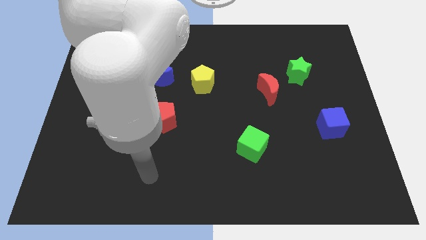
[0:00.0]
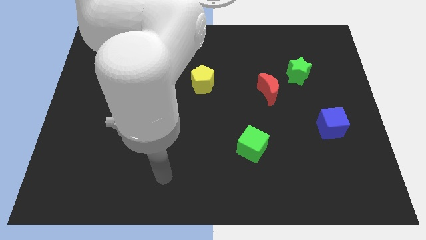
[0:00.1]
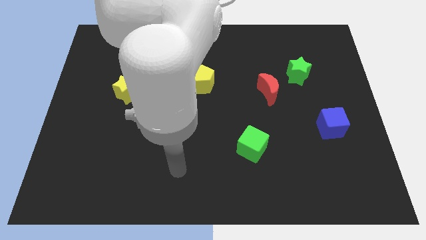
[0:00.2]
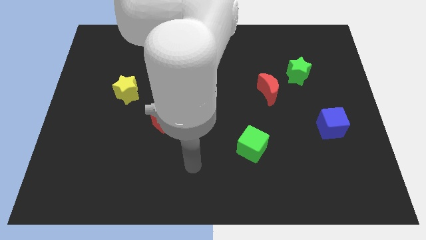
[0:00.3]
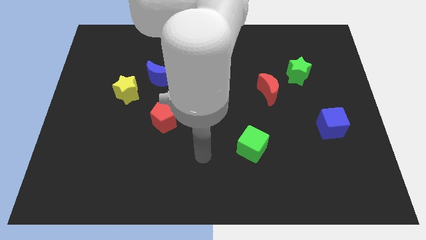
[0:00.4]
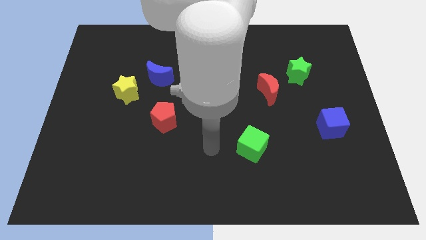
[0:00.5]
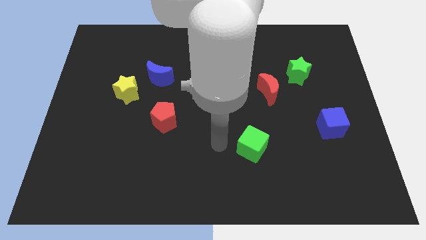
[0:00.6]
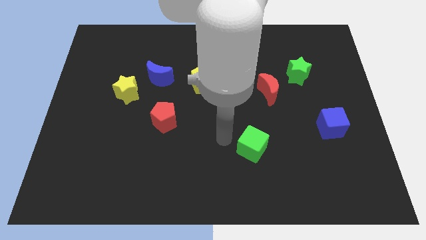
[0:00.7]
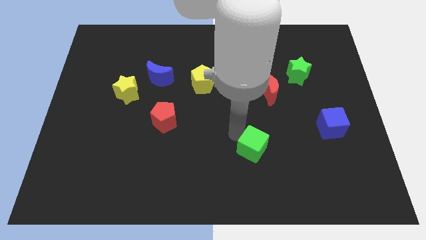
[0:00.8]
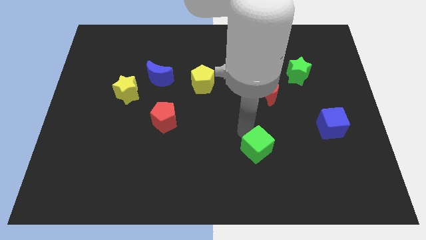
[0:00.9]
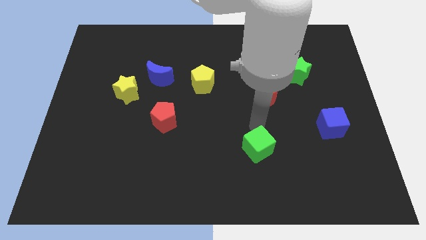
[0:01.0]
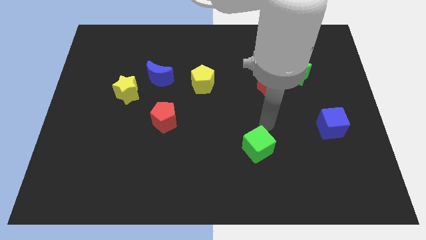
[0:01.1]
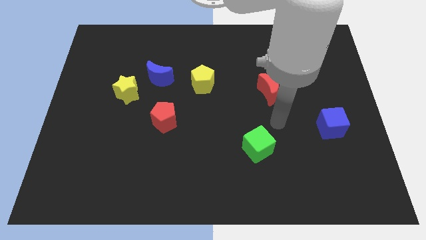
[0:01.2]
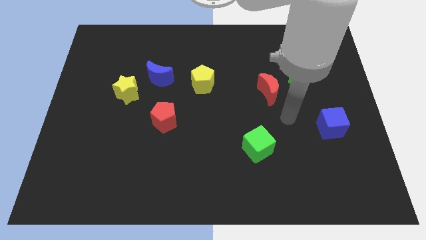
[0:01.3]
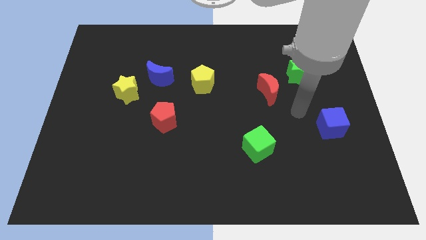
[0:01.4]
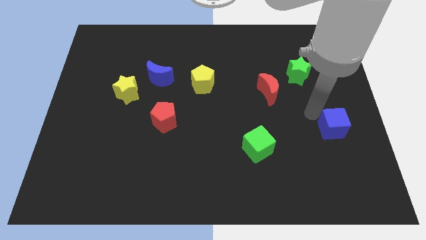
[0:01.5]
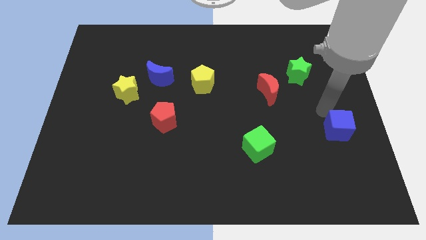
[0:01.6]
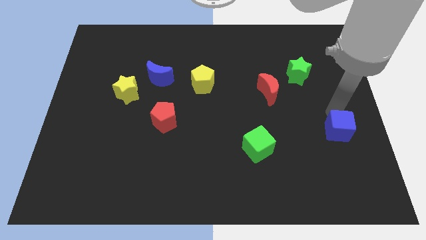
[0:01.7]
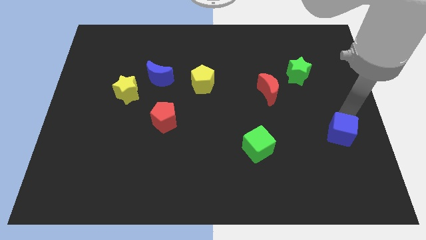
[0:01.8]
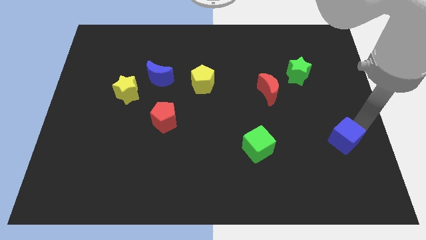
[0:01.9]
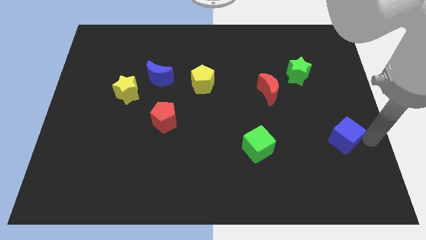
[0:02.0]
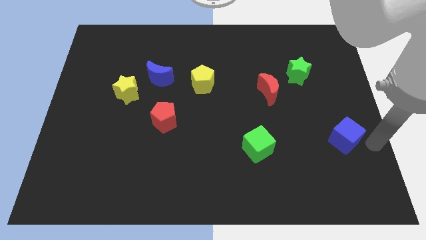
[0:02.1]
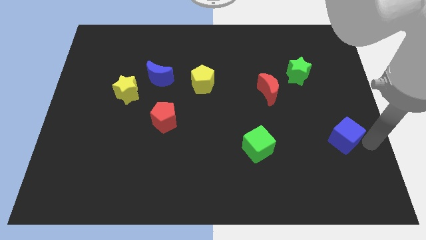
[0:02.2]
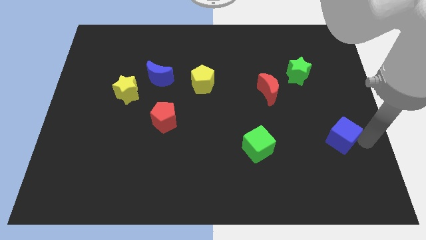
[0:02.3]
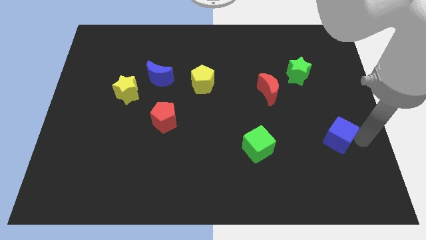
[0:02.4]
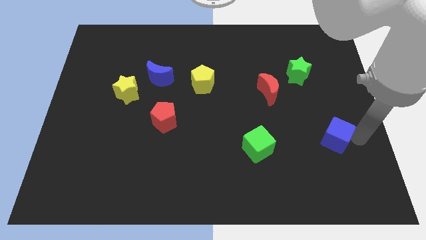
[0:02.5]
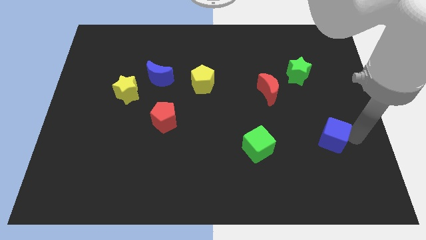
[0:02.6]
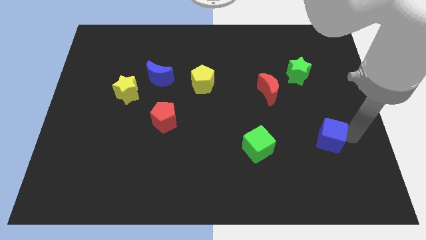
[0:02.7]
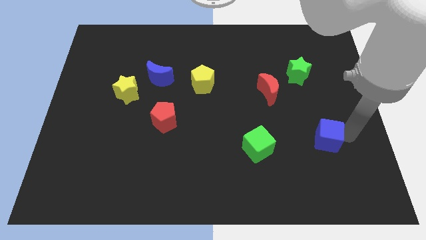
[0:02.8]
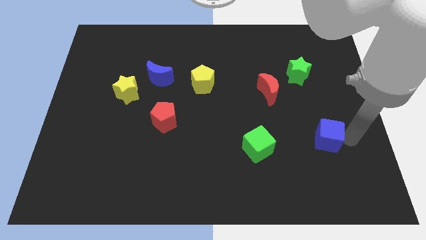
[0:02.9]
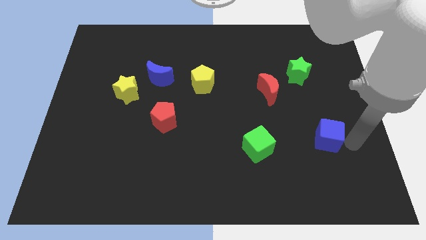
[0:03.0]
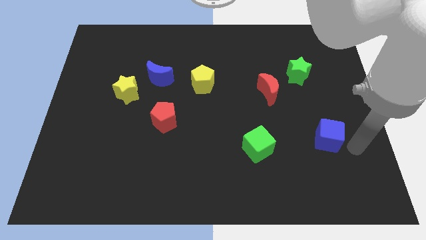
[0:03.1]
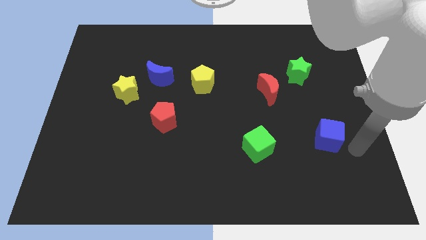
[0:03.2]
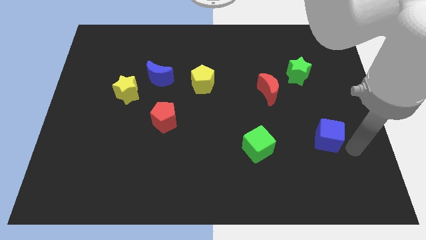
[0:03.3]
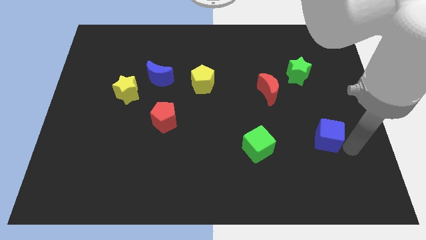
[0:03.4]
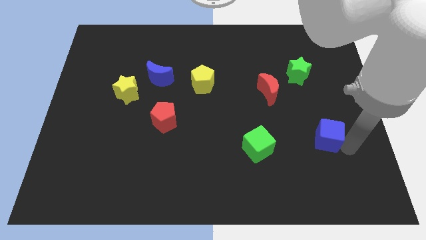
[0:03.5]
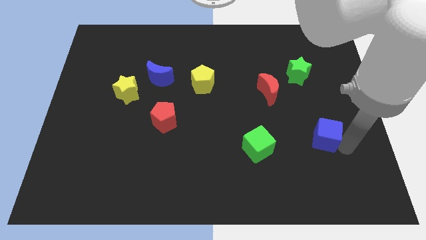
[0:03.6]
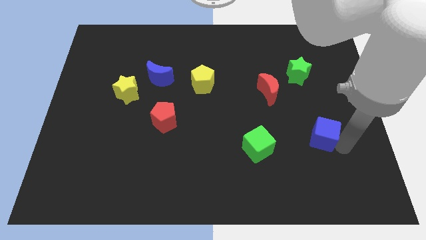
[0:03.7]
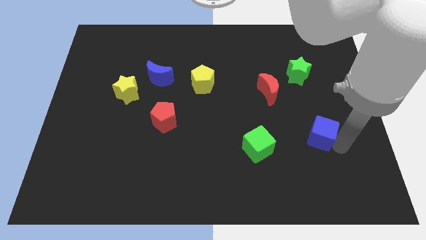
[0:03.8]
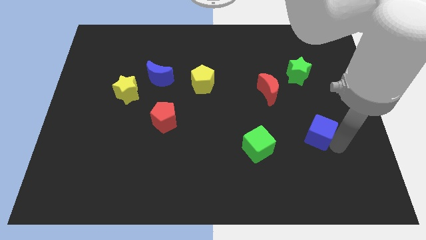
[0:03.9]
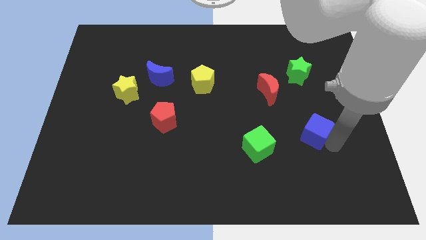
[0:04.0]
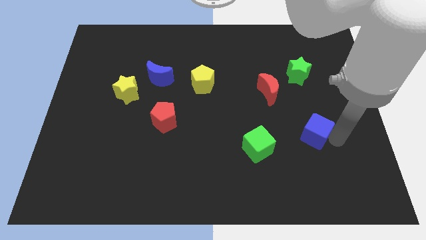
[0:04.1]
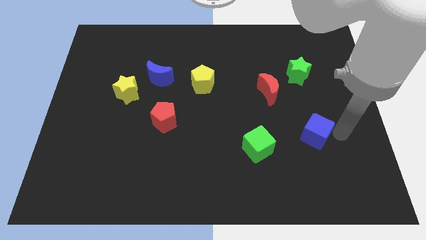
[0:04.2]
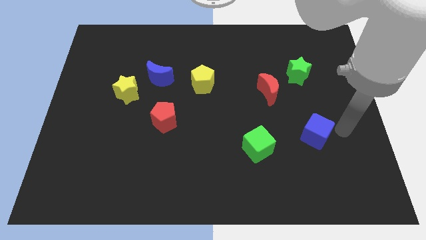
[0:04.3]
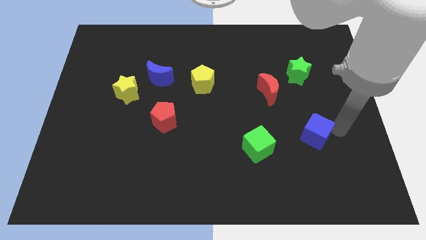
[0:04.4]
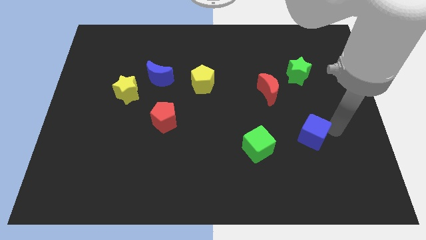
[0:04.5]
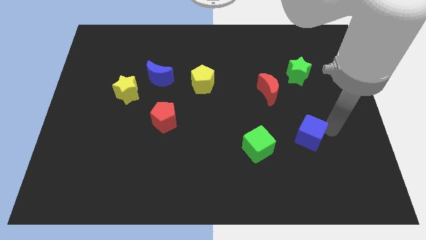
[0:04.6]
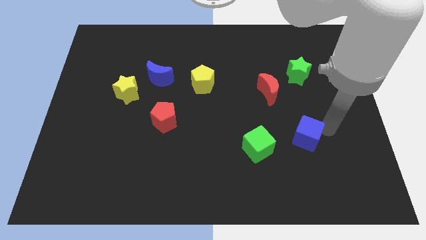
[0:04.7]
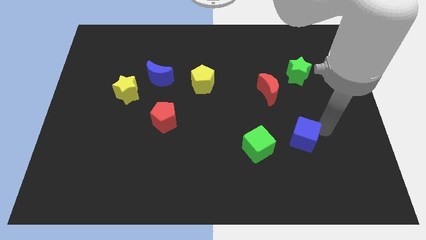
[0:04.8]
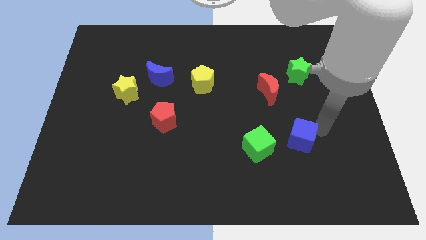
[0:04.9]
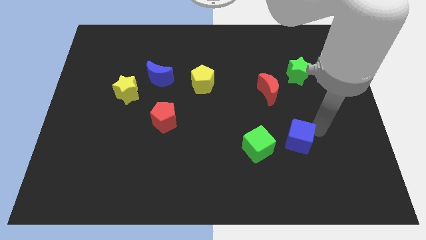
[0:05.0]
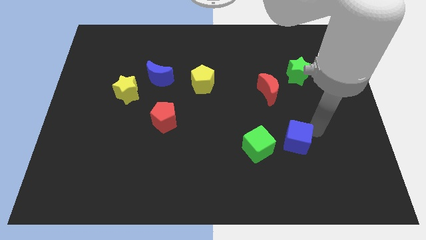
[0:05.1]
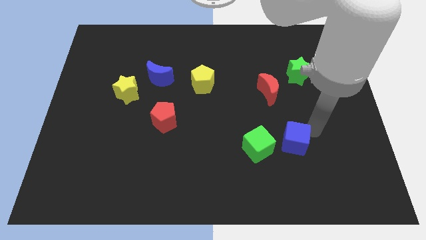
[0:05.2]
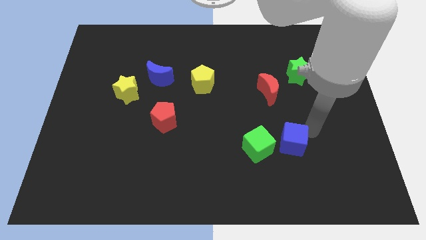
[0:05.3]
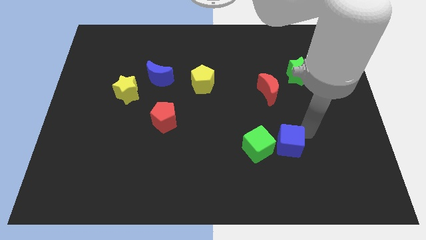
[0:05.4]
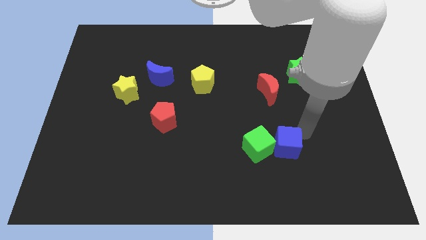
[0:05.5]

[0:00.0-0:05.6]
move the blue cube towards the green cube

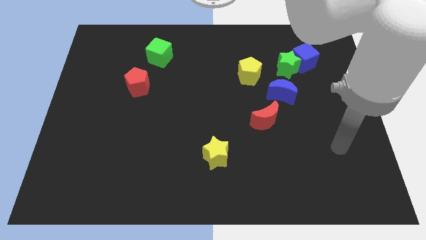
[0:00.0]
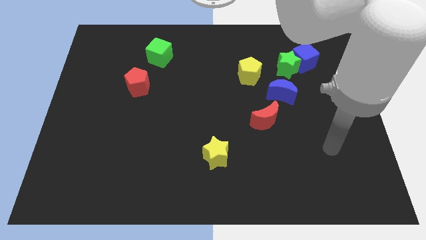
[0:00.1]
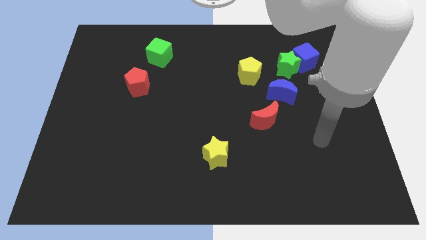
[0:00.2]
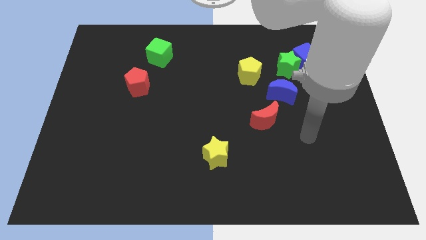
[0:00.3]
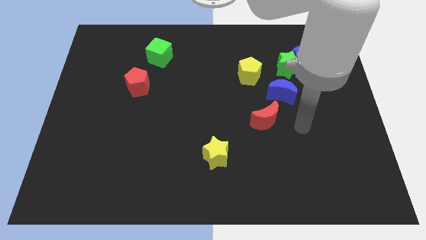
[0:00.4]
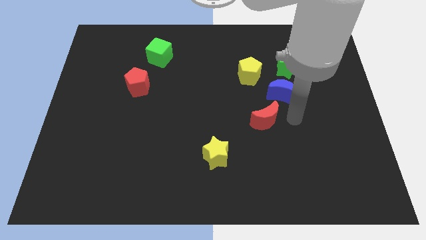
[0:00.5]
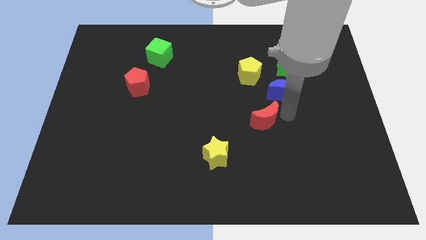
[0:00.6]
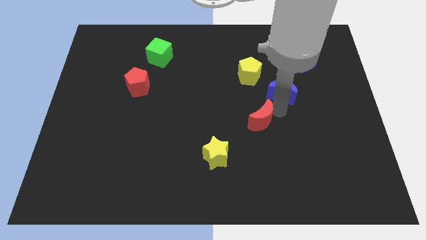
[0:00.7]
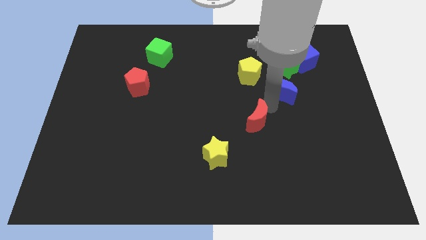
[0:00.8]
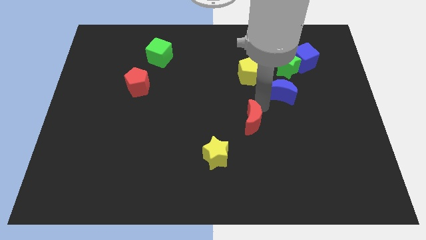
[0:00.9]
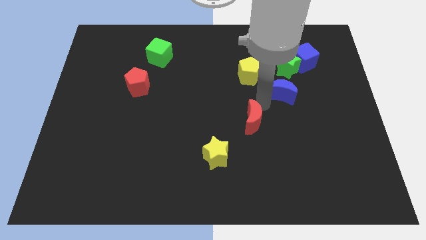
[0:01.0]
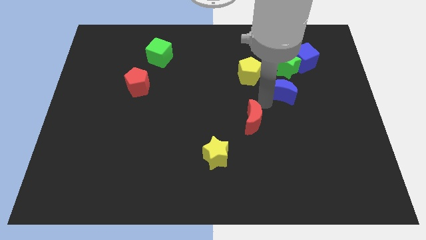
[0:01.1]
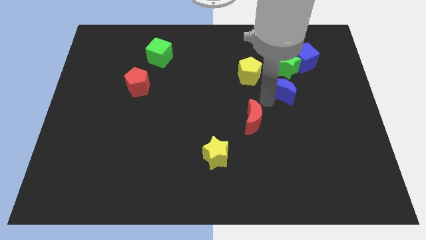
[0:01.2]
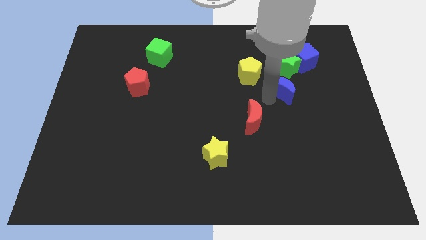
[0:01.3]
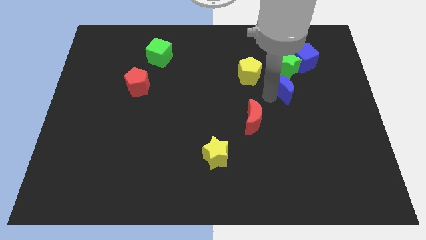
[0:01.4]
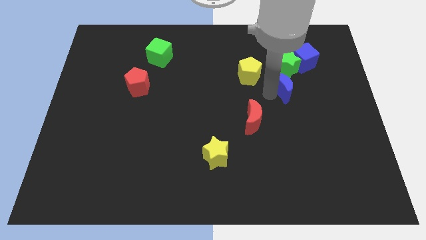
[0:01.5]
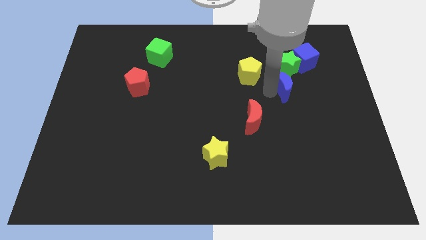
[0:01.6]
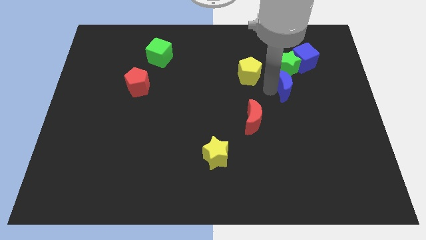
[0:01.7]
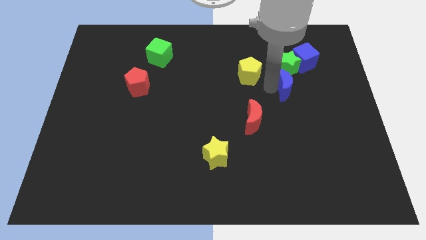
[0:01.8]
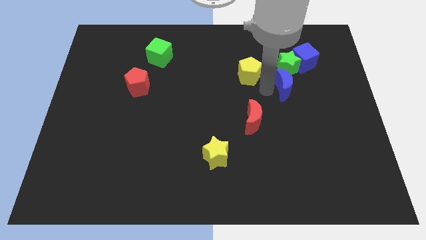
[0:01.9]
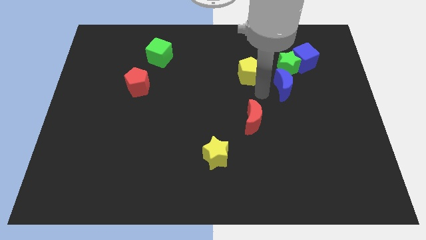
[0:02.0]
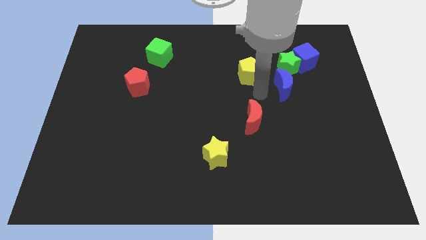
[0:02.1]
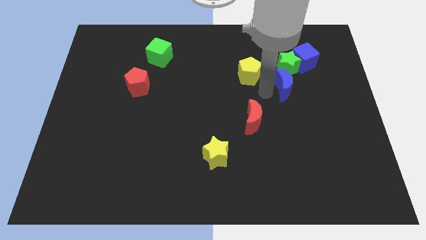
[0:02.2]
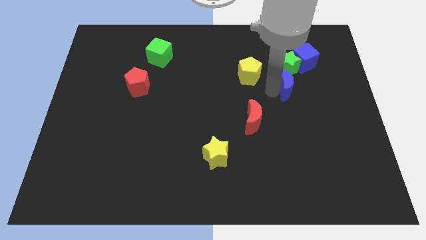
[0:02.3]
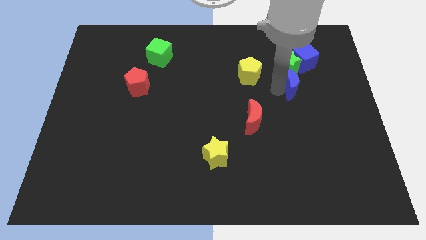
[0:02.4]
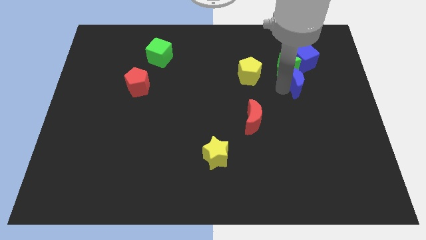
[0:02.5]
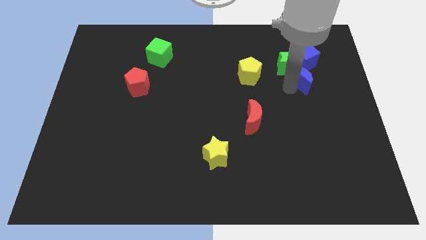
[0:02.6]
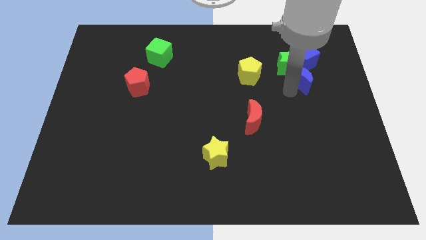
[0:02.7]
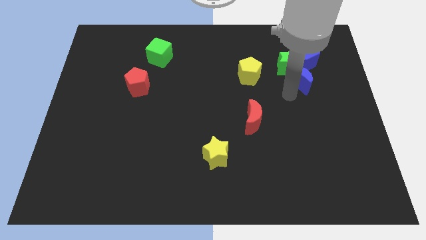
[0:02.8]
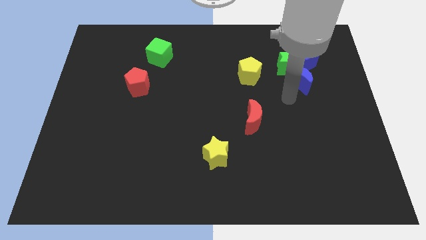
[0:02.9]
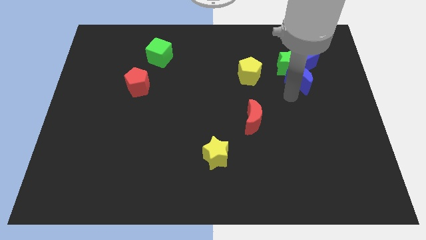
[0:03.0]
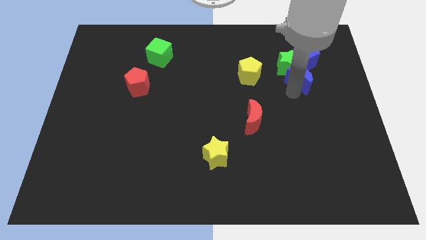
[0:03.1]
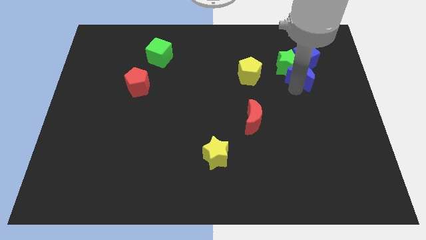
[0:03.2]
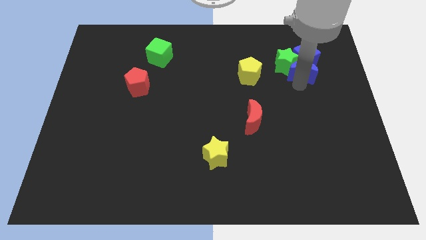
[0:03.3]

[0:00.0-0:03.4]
slide the blue moon towards the blue cube
